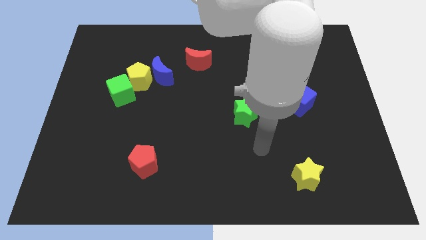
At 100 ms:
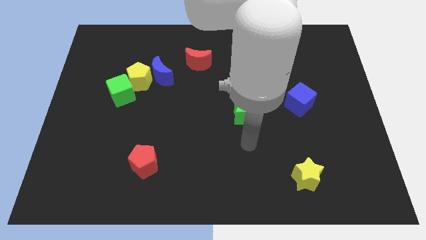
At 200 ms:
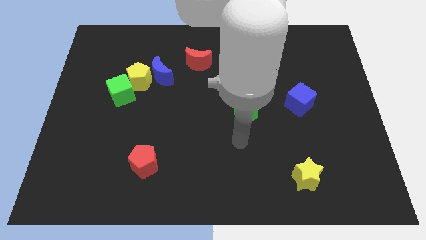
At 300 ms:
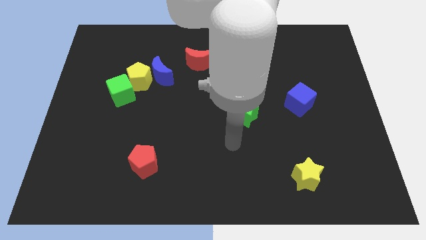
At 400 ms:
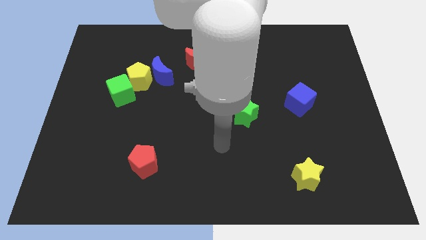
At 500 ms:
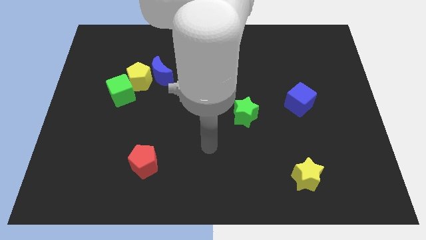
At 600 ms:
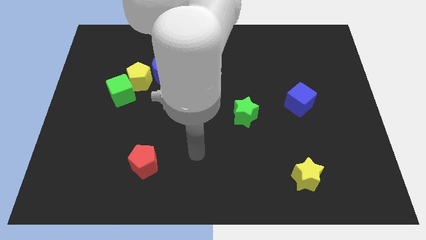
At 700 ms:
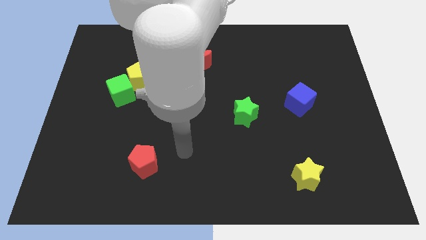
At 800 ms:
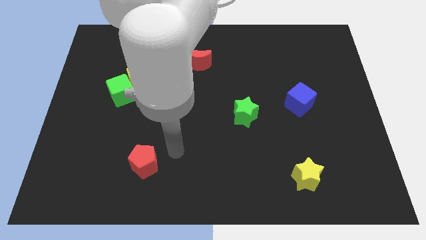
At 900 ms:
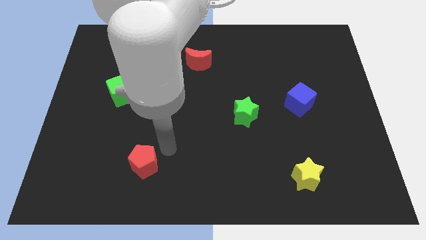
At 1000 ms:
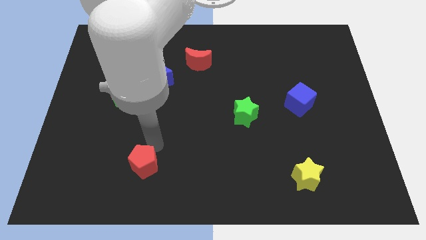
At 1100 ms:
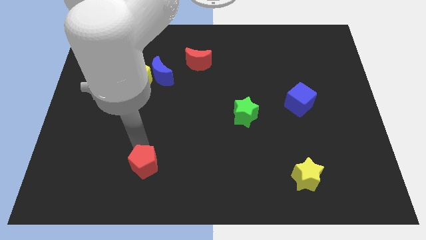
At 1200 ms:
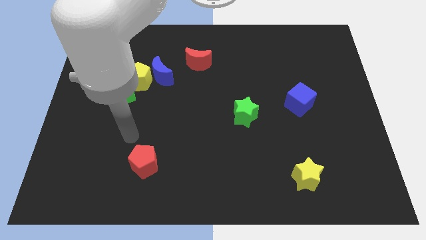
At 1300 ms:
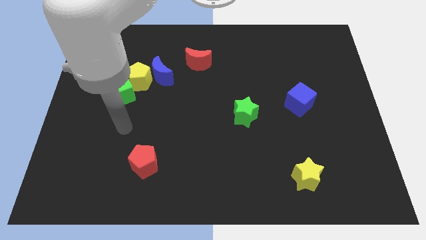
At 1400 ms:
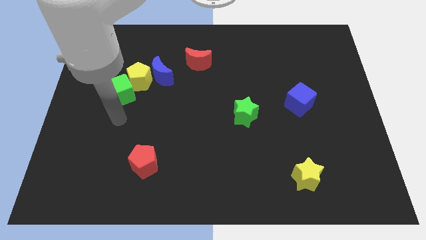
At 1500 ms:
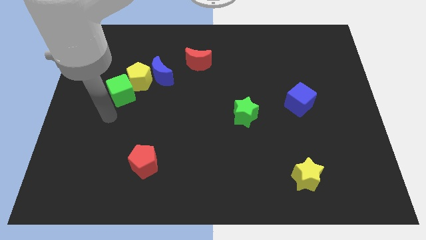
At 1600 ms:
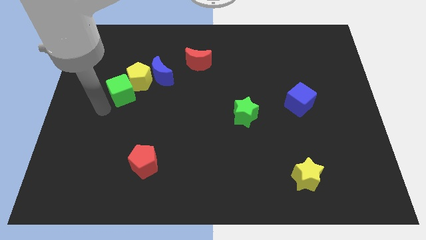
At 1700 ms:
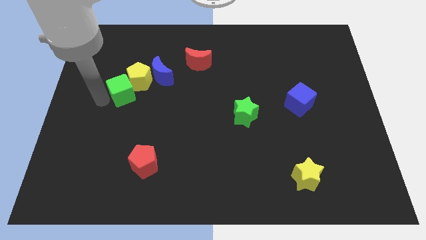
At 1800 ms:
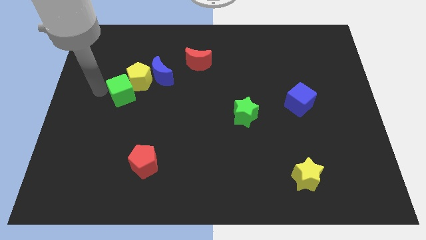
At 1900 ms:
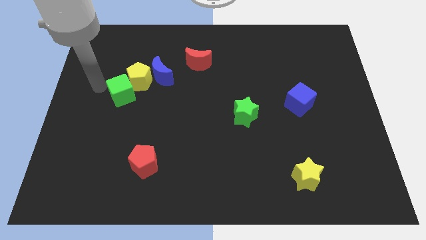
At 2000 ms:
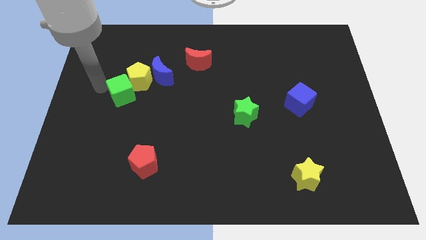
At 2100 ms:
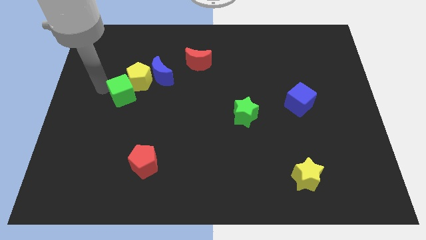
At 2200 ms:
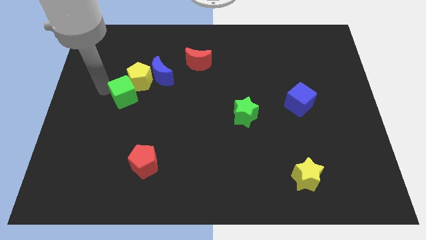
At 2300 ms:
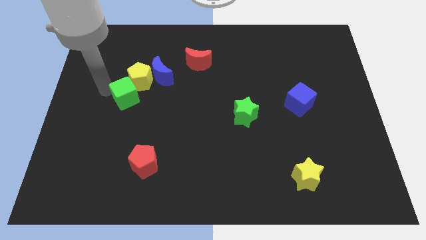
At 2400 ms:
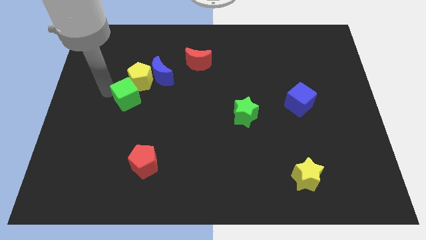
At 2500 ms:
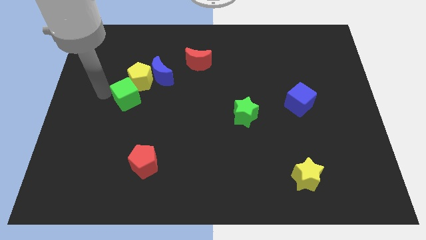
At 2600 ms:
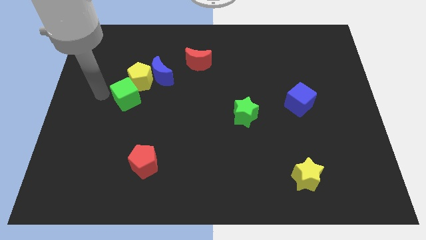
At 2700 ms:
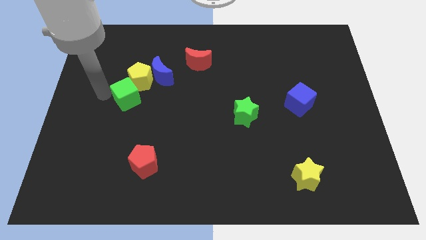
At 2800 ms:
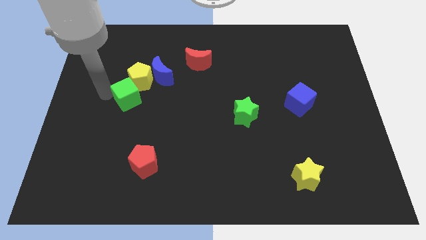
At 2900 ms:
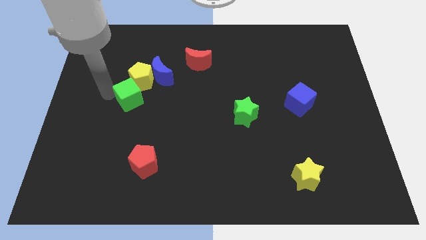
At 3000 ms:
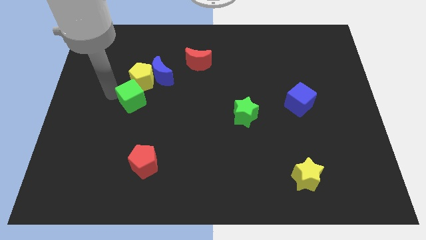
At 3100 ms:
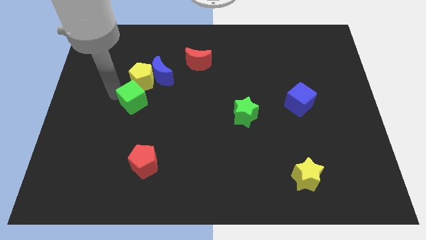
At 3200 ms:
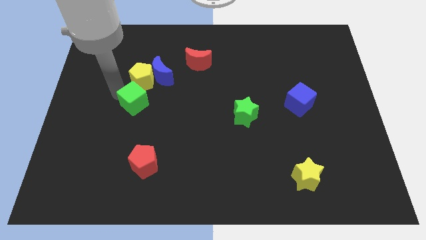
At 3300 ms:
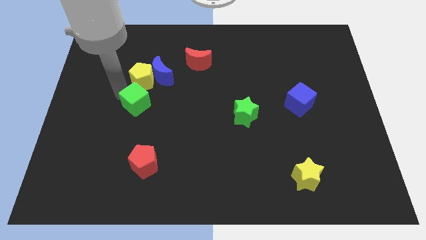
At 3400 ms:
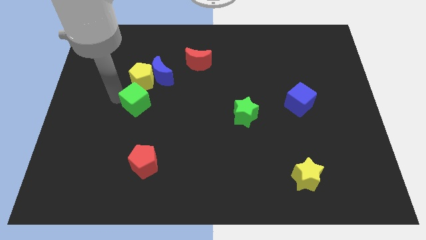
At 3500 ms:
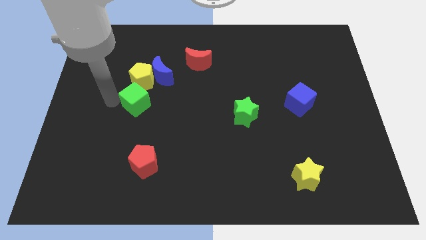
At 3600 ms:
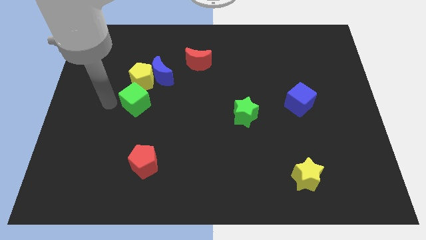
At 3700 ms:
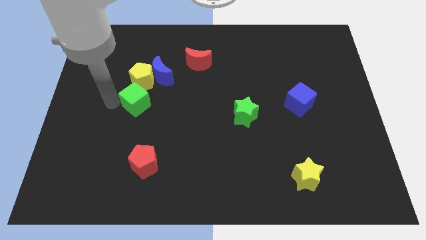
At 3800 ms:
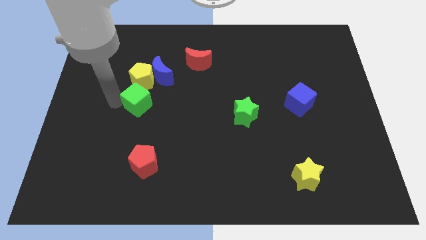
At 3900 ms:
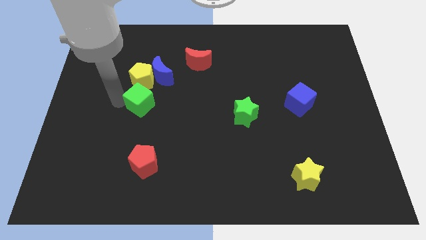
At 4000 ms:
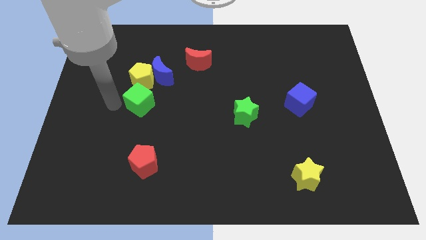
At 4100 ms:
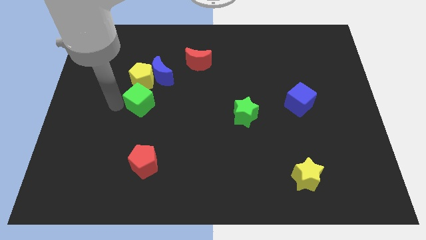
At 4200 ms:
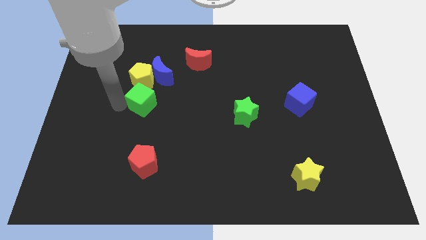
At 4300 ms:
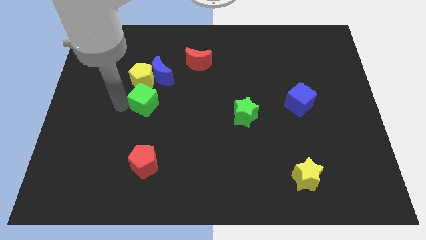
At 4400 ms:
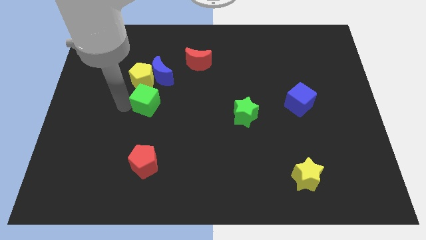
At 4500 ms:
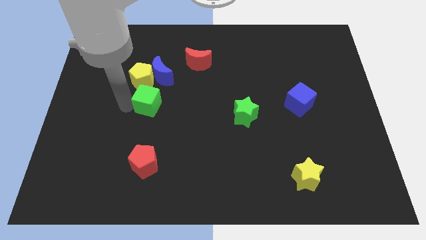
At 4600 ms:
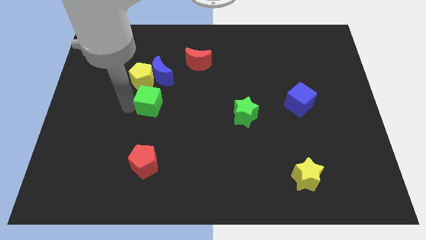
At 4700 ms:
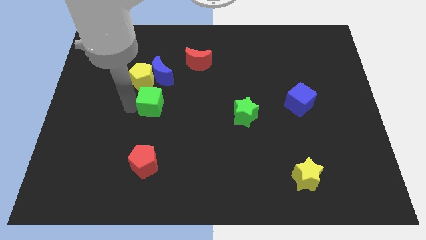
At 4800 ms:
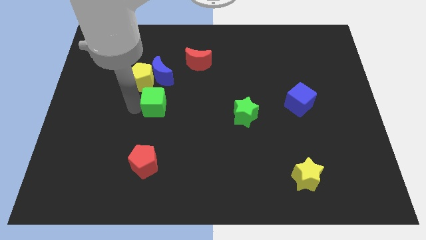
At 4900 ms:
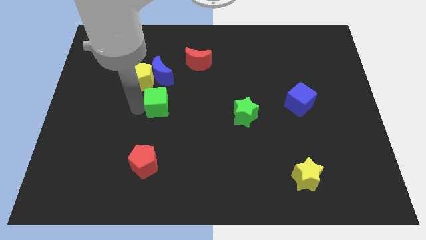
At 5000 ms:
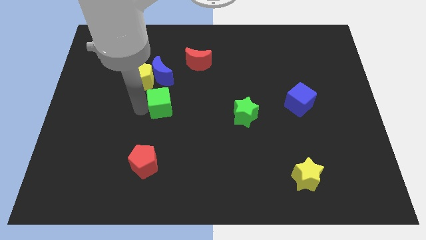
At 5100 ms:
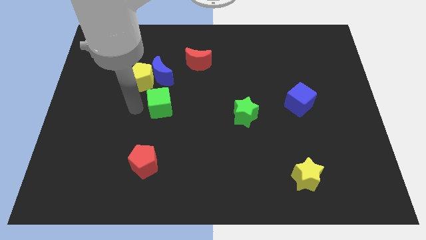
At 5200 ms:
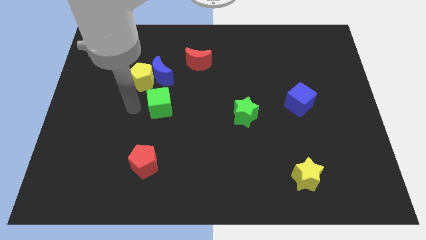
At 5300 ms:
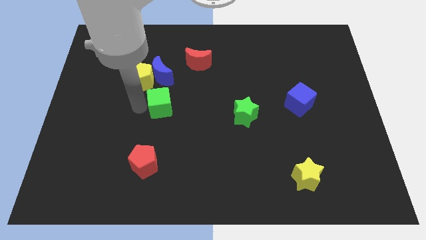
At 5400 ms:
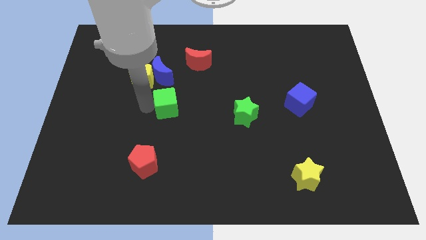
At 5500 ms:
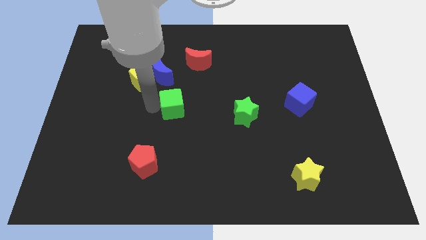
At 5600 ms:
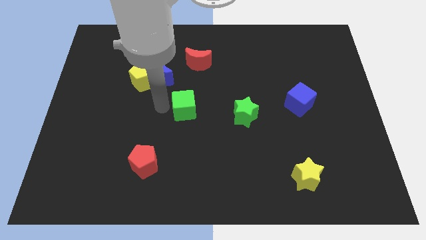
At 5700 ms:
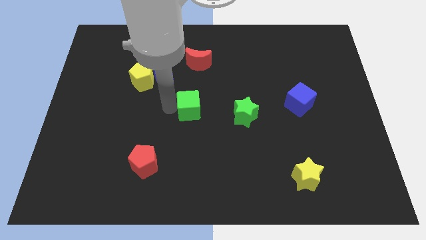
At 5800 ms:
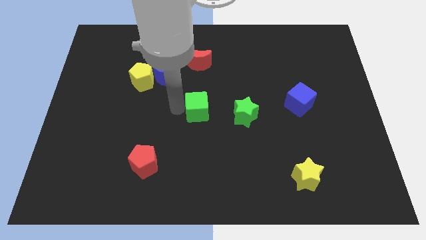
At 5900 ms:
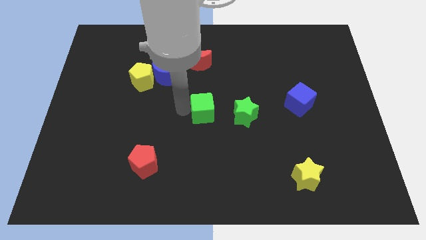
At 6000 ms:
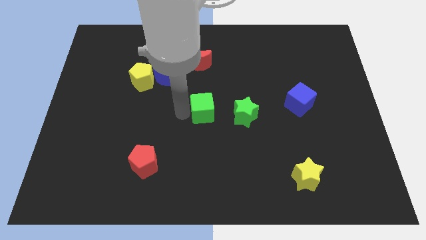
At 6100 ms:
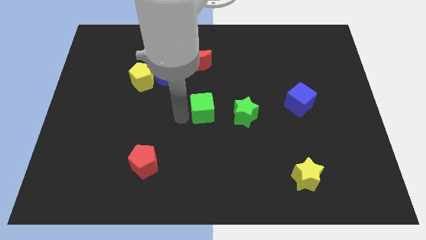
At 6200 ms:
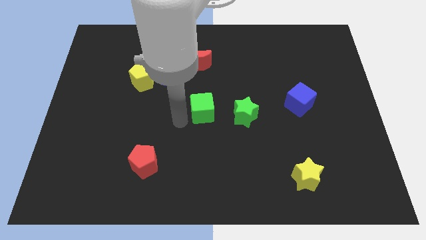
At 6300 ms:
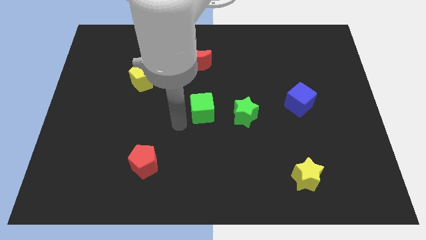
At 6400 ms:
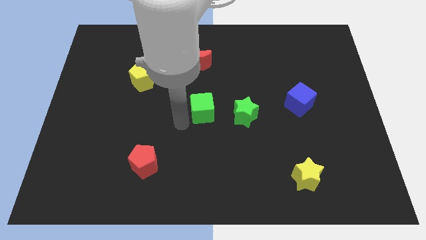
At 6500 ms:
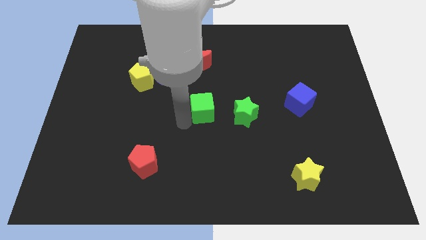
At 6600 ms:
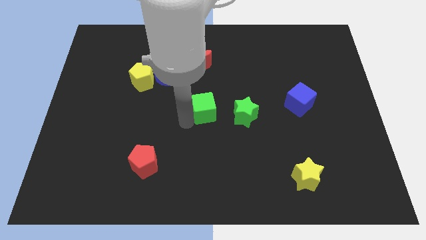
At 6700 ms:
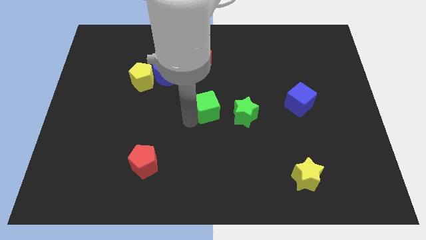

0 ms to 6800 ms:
move the green cube right

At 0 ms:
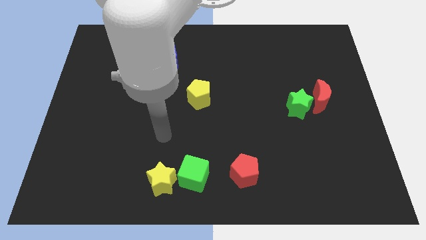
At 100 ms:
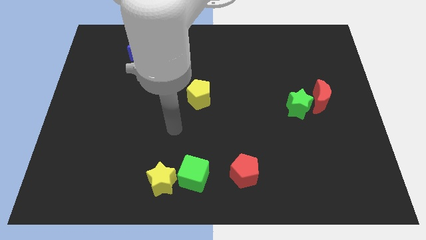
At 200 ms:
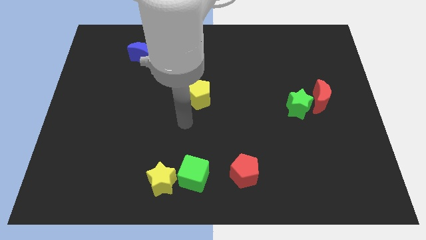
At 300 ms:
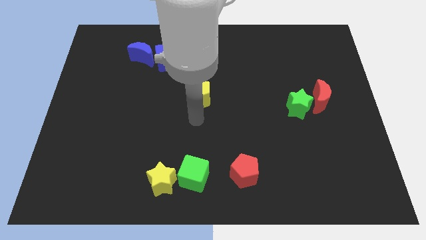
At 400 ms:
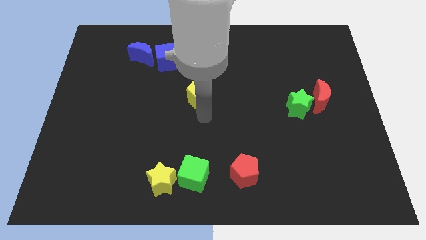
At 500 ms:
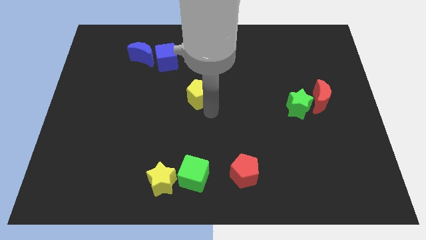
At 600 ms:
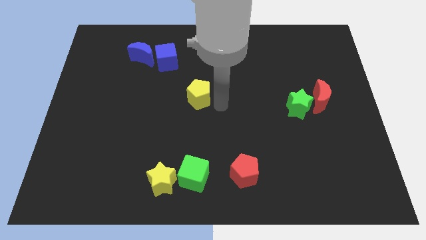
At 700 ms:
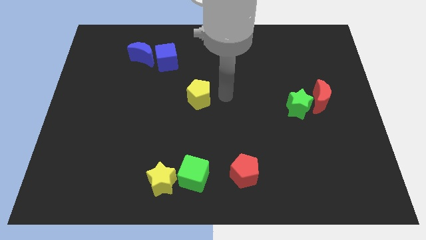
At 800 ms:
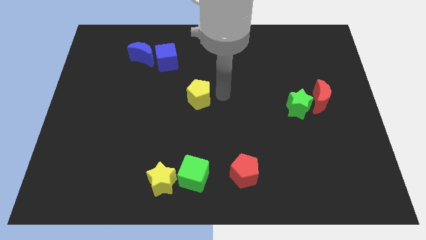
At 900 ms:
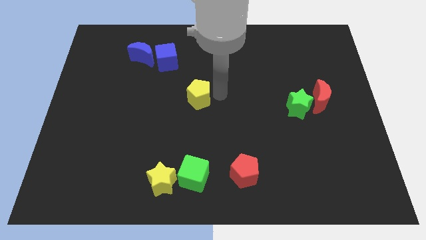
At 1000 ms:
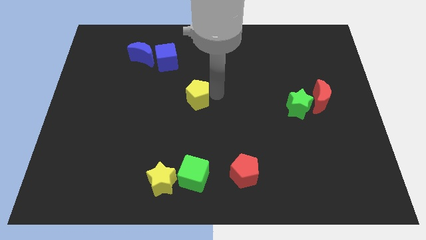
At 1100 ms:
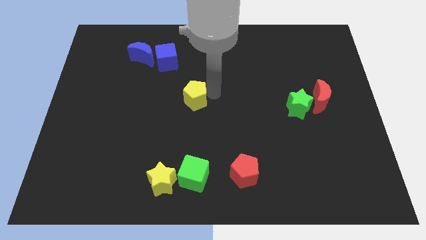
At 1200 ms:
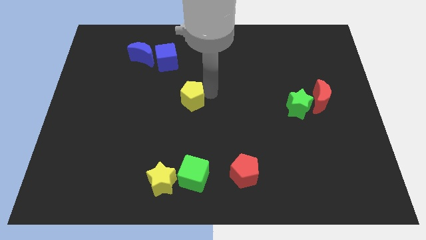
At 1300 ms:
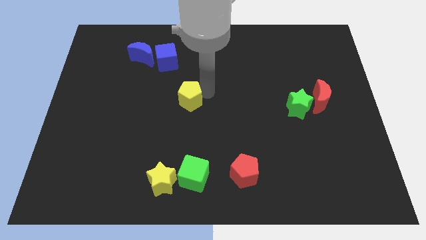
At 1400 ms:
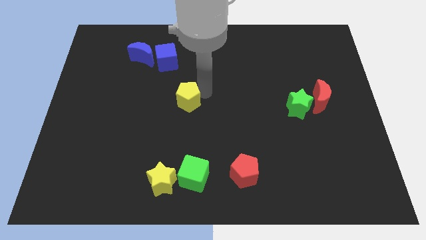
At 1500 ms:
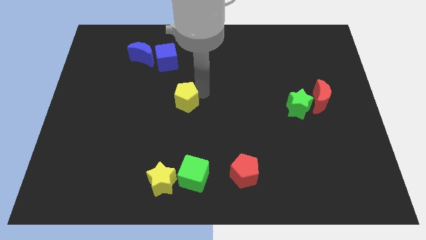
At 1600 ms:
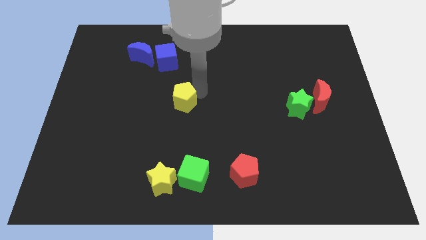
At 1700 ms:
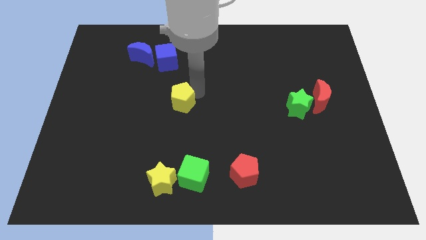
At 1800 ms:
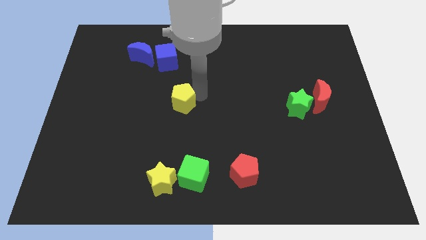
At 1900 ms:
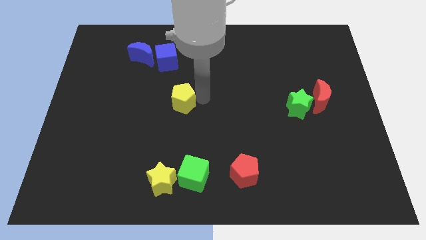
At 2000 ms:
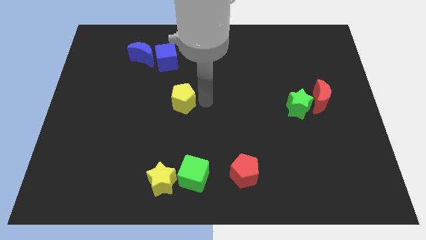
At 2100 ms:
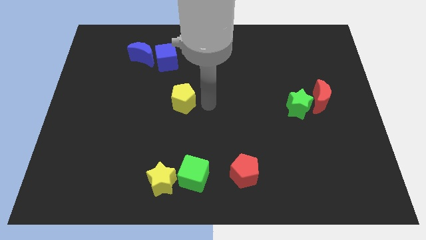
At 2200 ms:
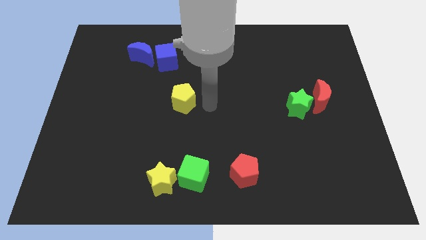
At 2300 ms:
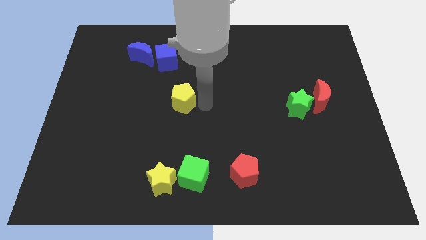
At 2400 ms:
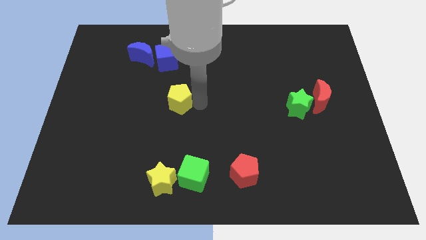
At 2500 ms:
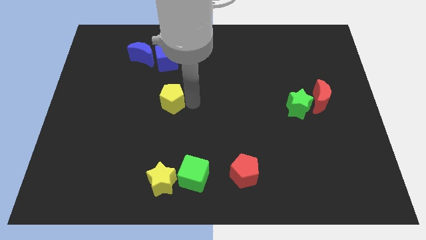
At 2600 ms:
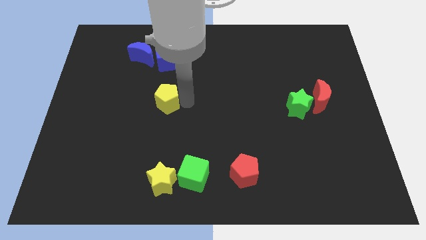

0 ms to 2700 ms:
slightly push the yellow pentagon left
